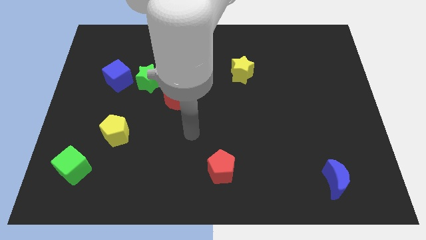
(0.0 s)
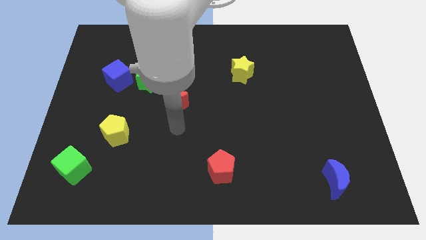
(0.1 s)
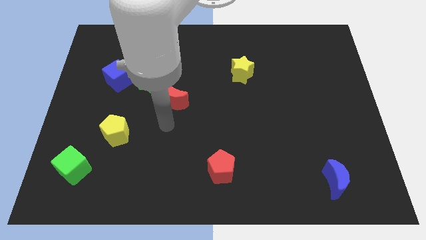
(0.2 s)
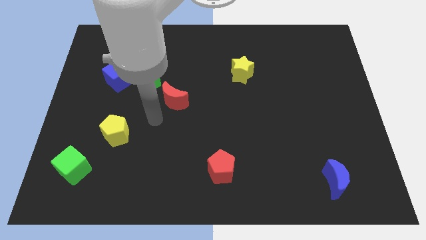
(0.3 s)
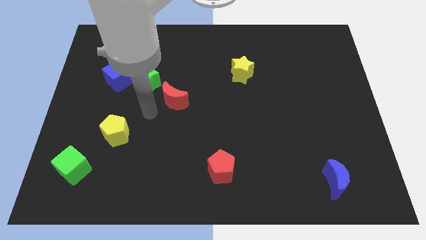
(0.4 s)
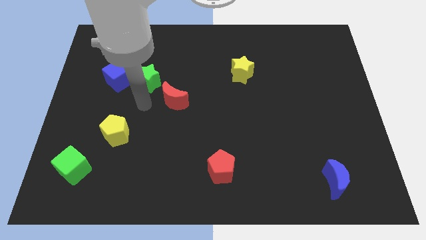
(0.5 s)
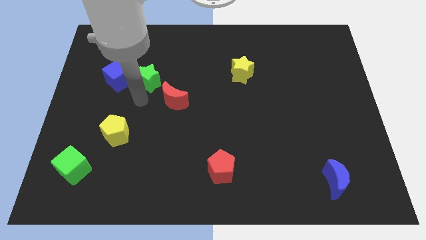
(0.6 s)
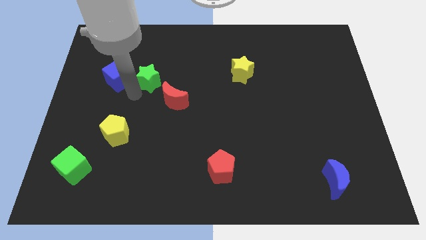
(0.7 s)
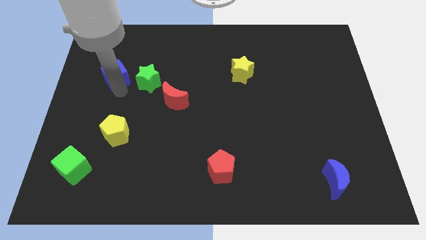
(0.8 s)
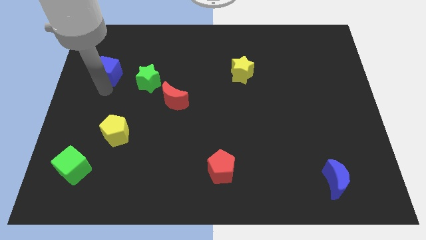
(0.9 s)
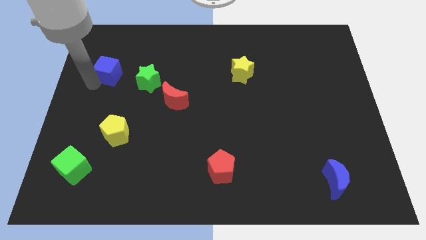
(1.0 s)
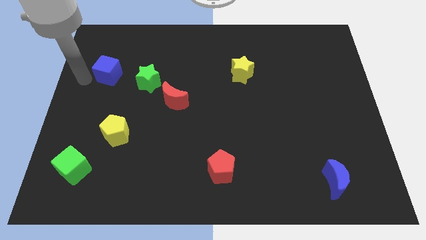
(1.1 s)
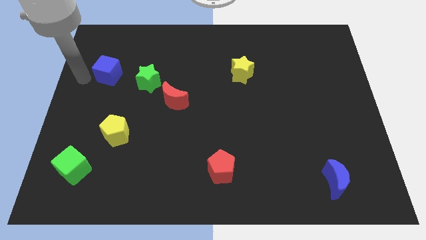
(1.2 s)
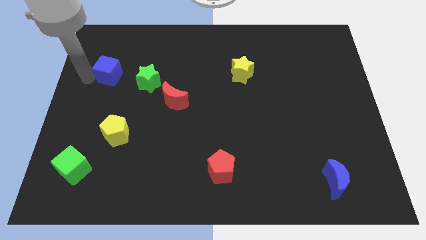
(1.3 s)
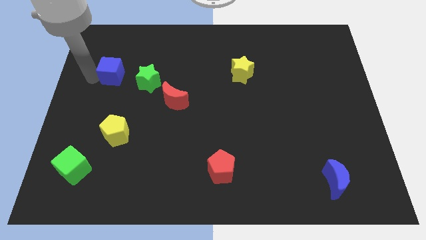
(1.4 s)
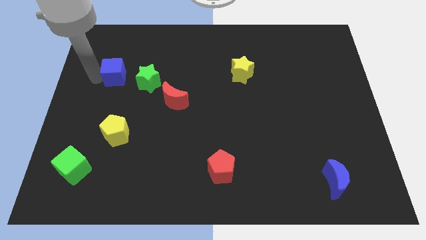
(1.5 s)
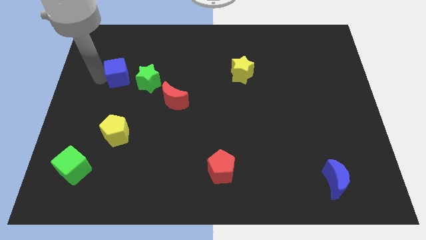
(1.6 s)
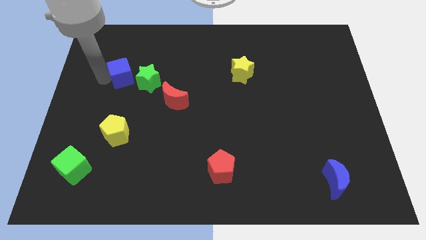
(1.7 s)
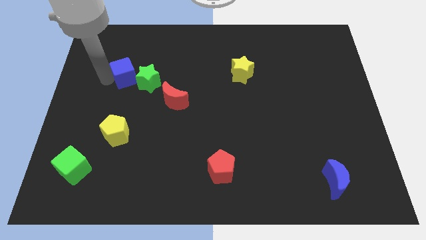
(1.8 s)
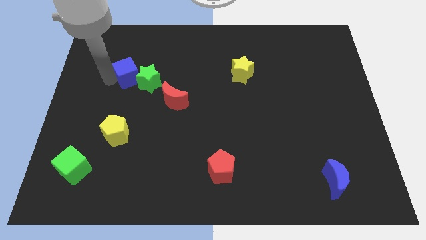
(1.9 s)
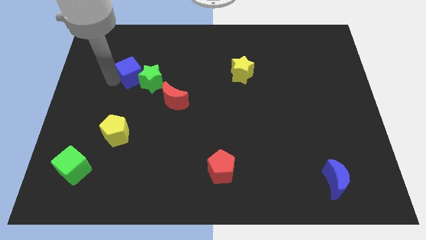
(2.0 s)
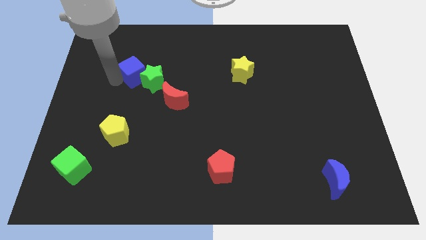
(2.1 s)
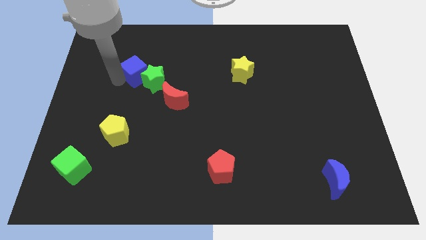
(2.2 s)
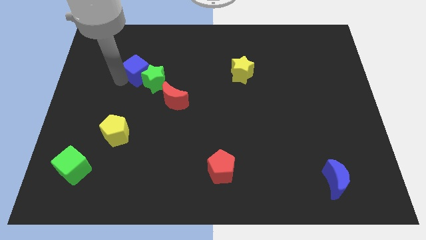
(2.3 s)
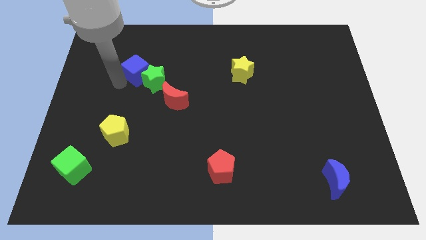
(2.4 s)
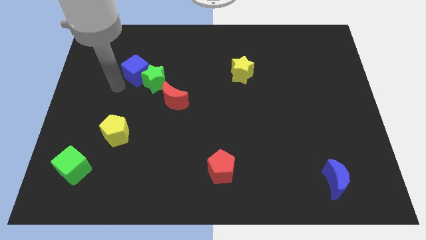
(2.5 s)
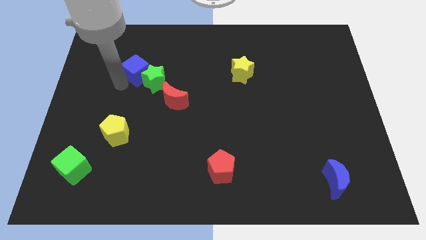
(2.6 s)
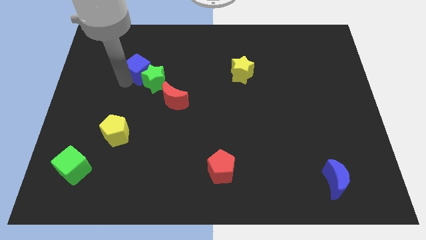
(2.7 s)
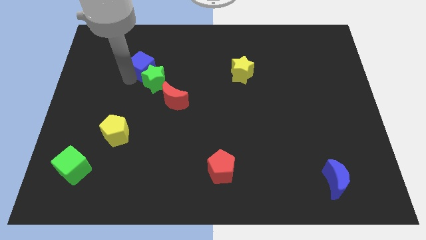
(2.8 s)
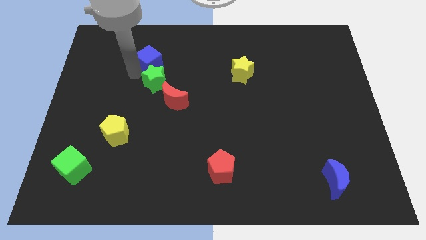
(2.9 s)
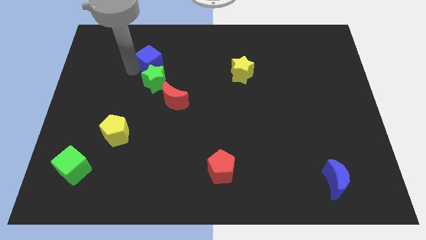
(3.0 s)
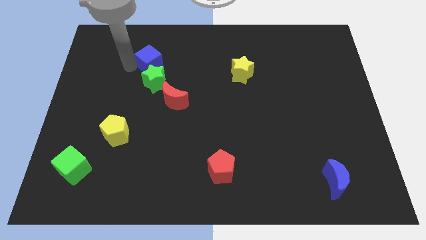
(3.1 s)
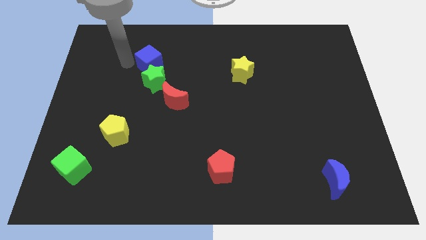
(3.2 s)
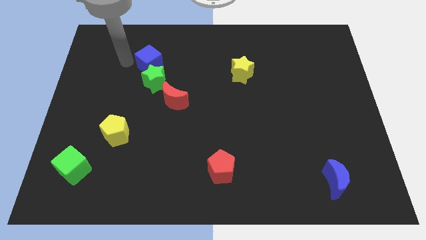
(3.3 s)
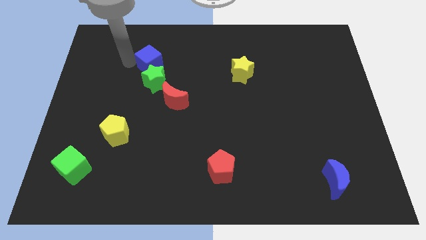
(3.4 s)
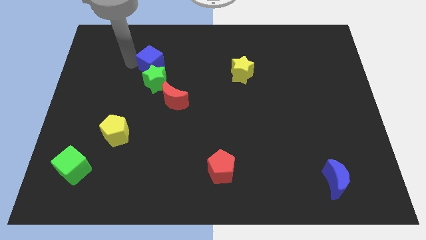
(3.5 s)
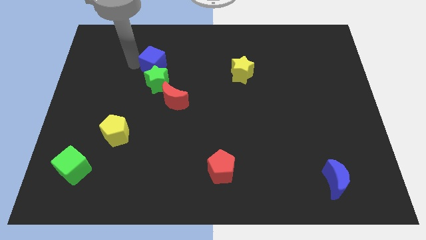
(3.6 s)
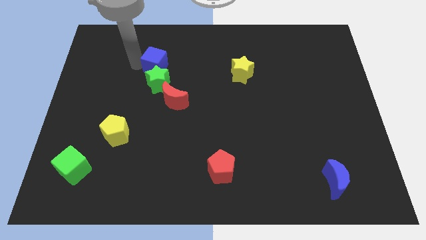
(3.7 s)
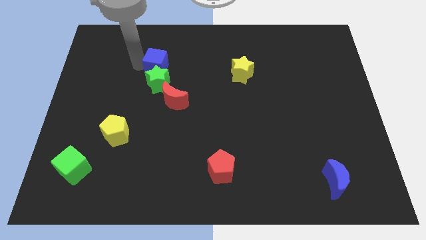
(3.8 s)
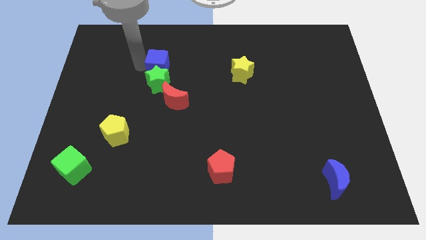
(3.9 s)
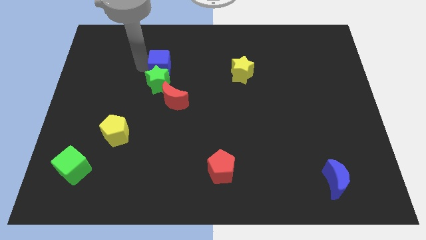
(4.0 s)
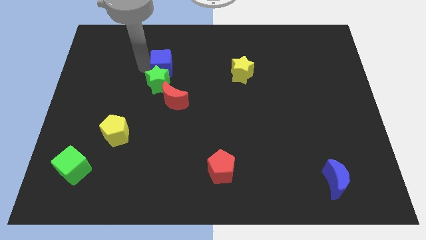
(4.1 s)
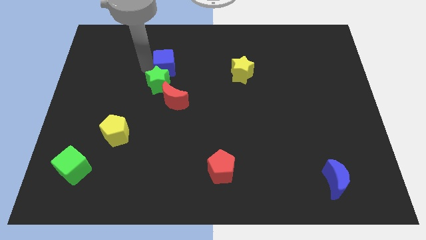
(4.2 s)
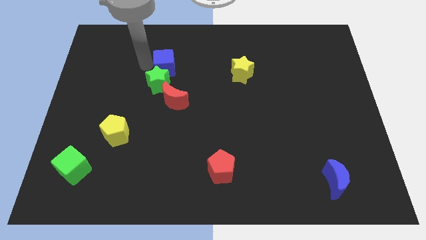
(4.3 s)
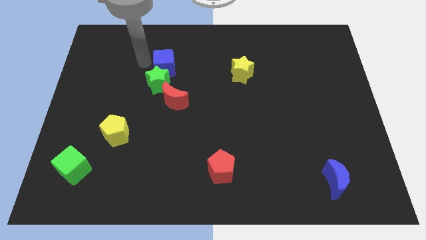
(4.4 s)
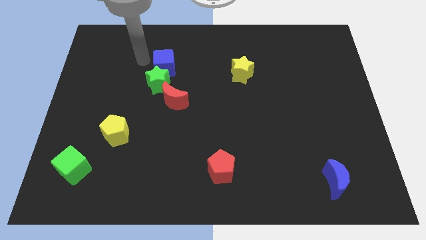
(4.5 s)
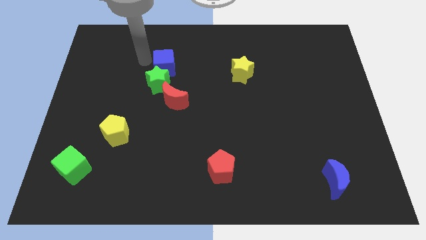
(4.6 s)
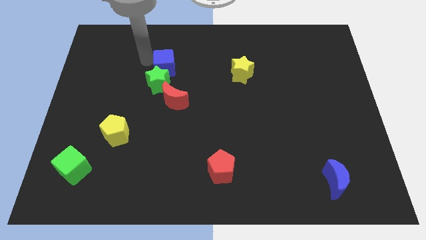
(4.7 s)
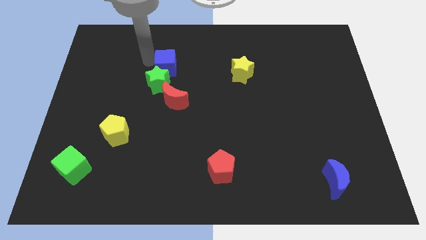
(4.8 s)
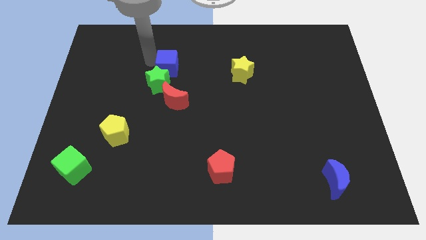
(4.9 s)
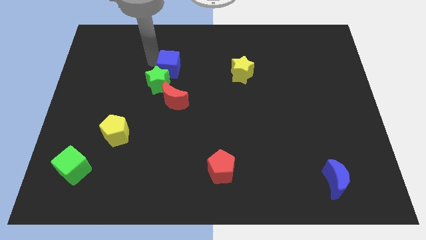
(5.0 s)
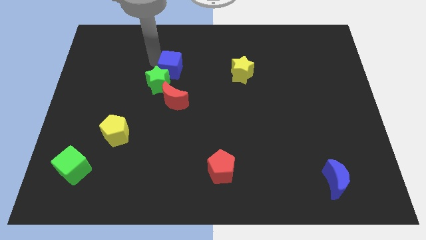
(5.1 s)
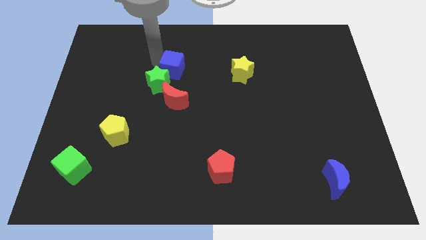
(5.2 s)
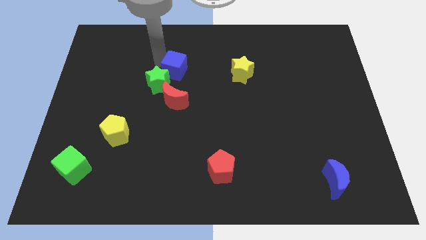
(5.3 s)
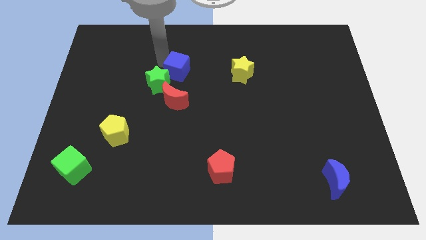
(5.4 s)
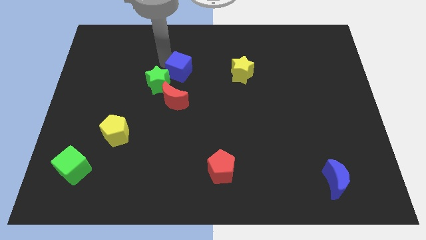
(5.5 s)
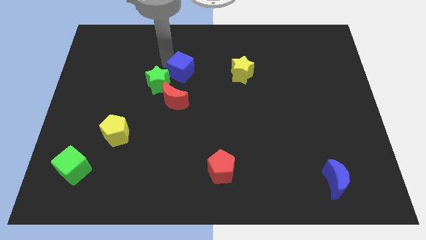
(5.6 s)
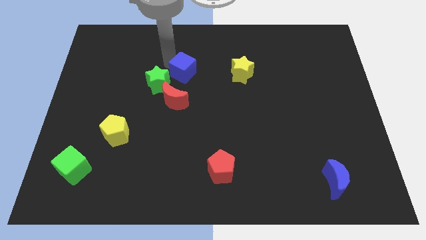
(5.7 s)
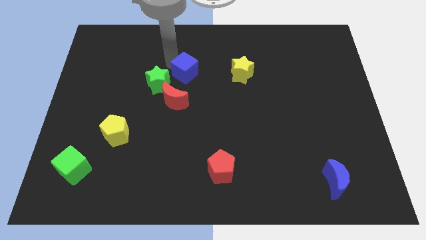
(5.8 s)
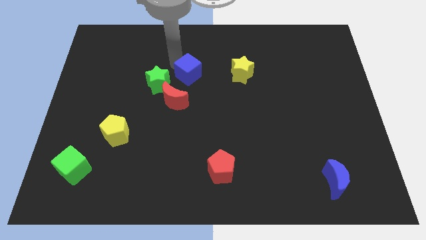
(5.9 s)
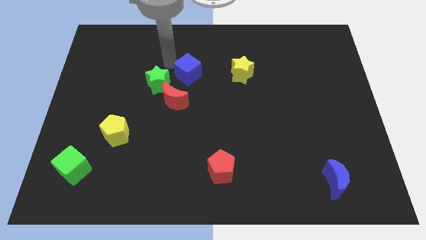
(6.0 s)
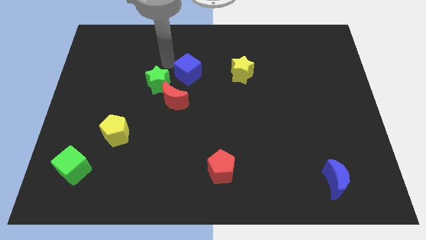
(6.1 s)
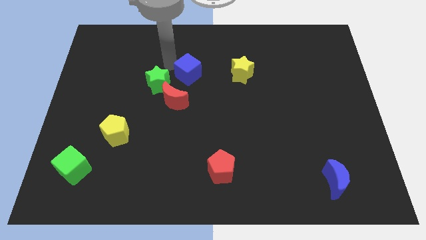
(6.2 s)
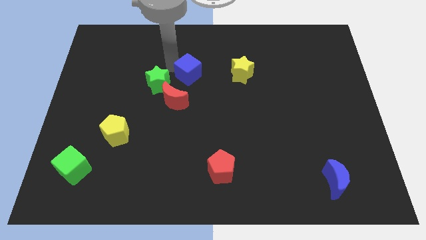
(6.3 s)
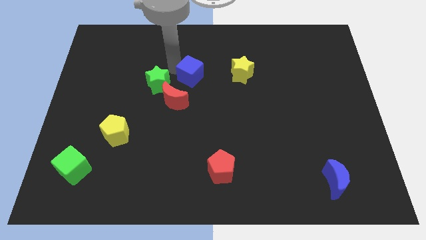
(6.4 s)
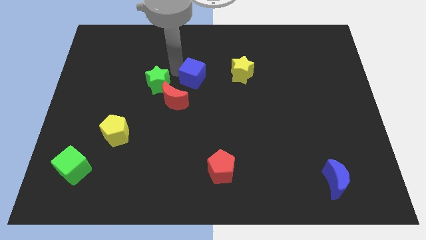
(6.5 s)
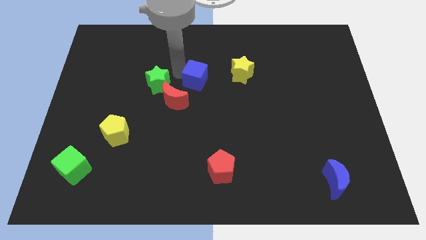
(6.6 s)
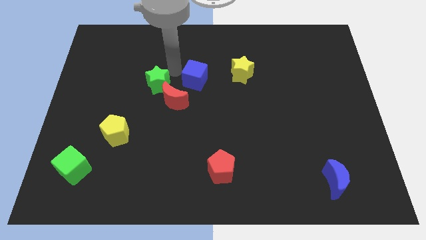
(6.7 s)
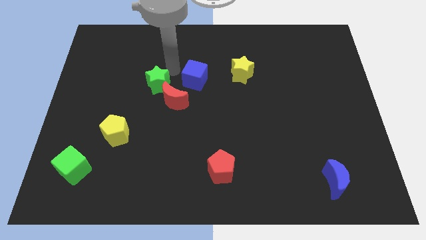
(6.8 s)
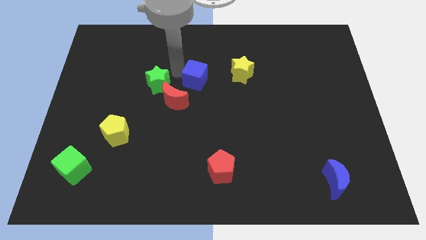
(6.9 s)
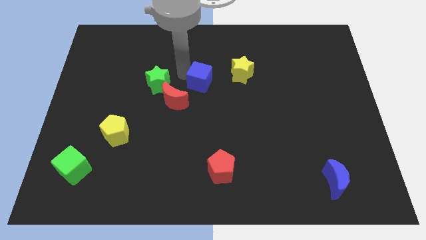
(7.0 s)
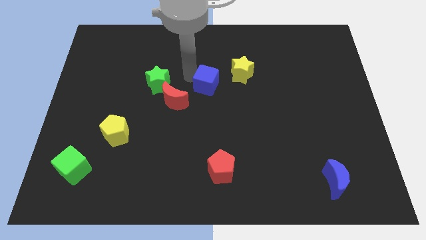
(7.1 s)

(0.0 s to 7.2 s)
move the blue cube to the bottom left of the yellow star
